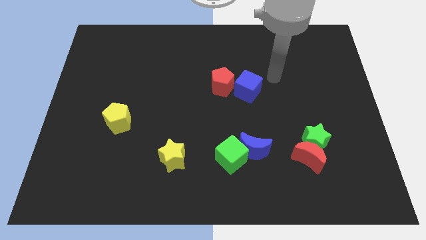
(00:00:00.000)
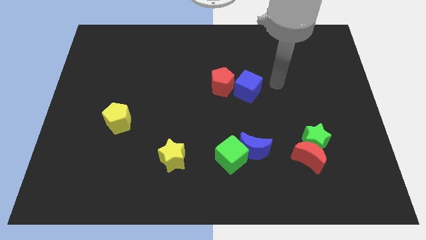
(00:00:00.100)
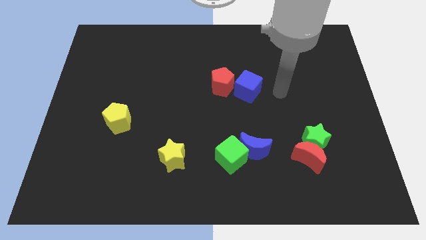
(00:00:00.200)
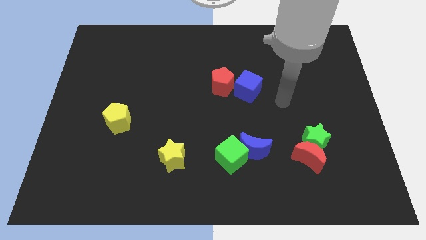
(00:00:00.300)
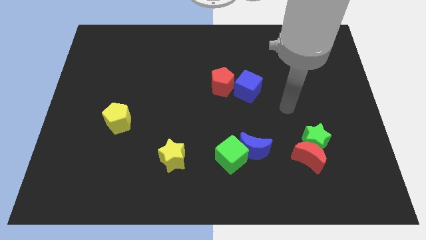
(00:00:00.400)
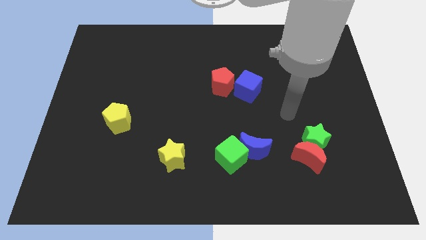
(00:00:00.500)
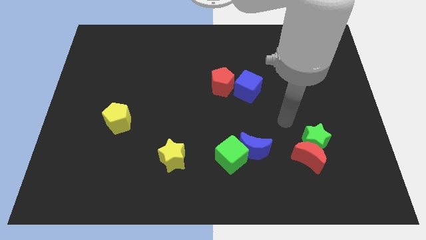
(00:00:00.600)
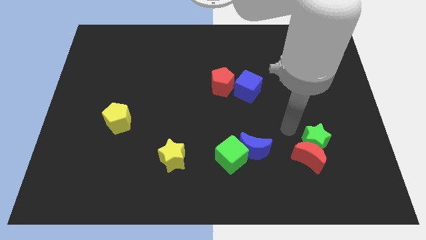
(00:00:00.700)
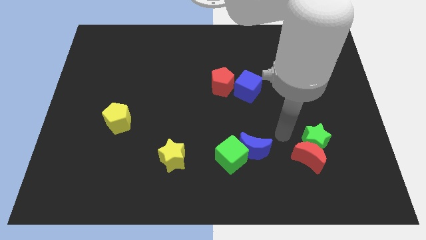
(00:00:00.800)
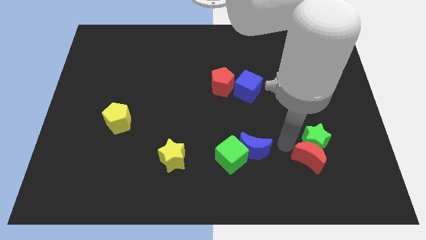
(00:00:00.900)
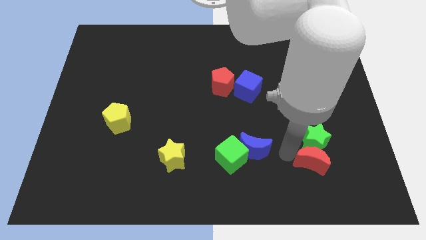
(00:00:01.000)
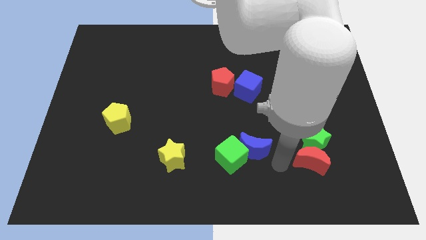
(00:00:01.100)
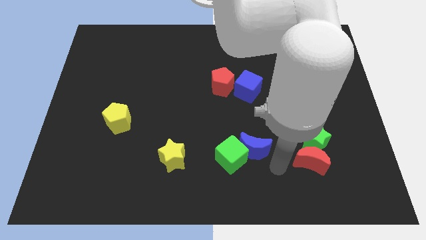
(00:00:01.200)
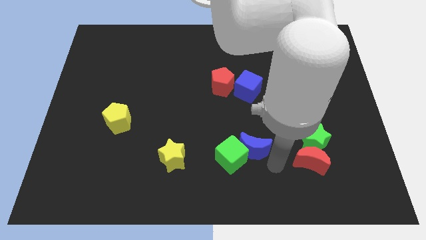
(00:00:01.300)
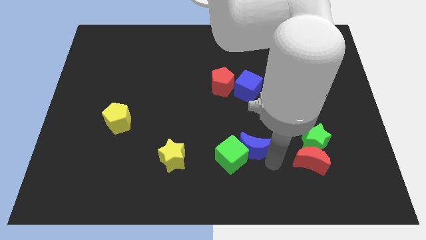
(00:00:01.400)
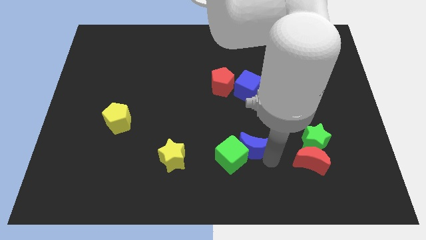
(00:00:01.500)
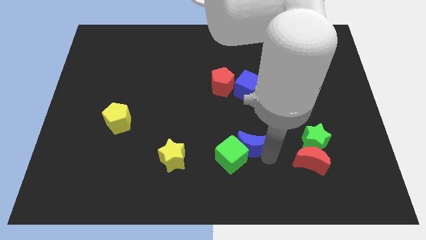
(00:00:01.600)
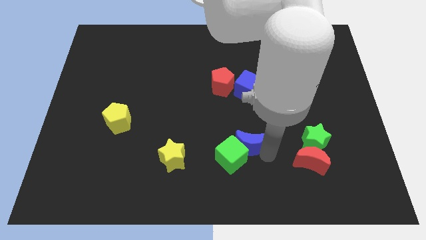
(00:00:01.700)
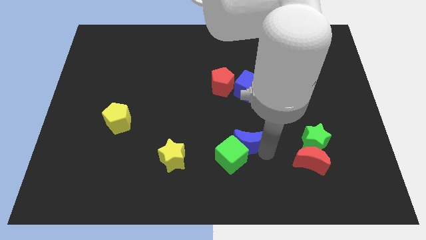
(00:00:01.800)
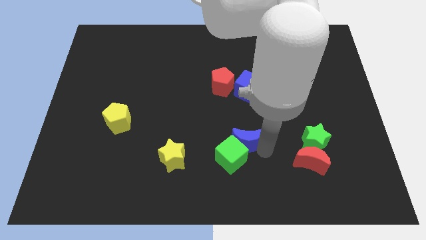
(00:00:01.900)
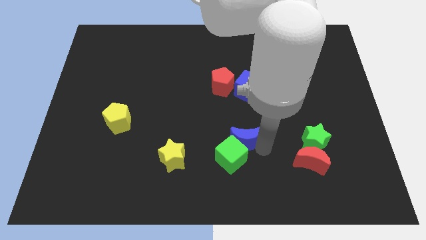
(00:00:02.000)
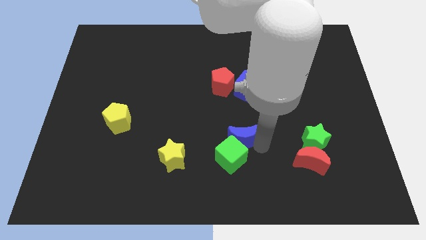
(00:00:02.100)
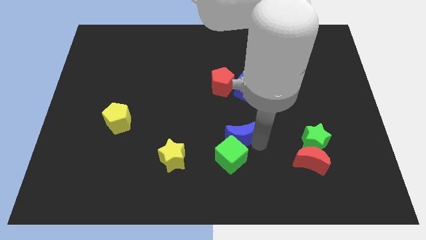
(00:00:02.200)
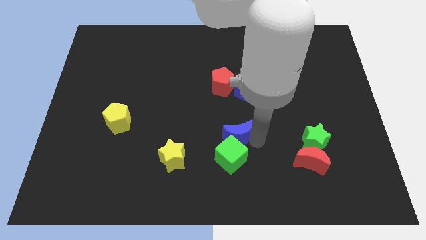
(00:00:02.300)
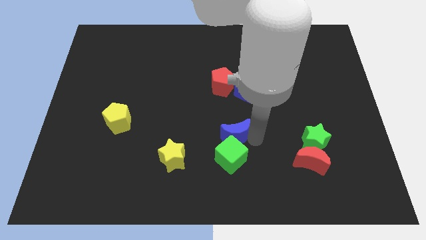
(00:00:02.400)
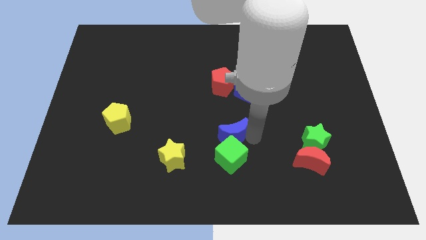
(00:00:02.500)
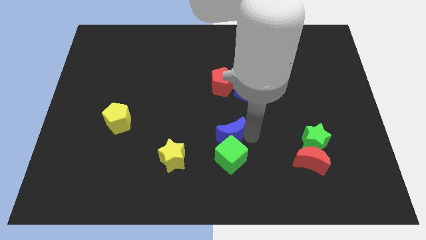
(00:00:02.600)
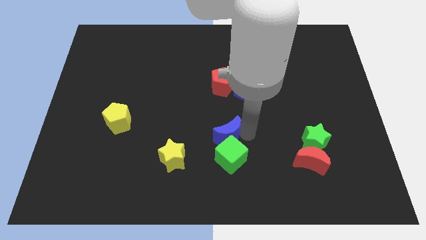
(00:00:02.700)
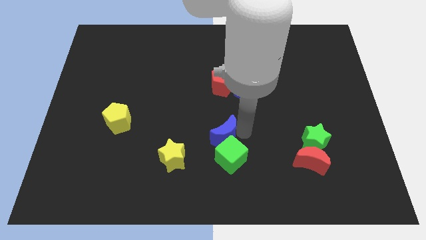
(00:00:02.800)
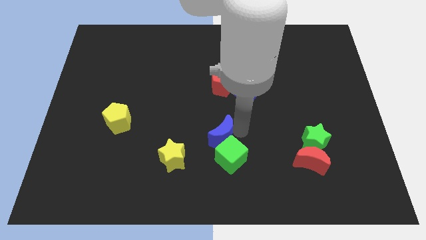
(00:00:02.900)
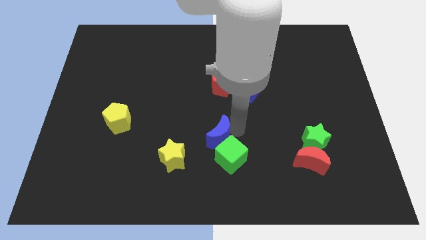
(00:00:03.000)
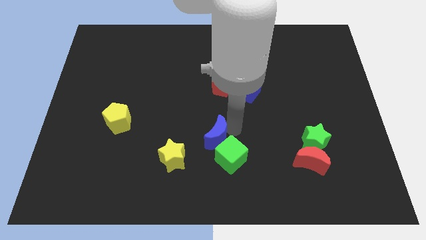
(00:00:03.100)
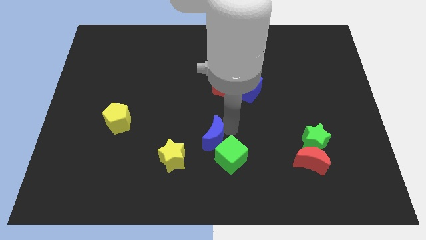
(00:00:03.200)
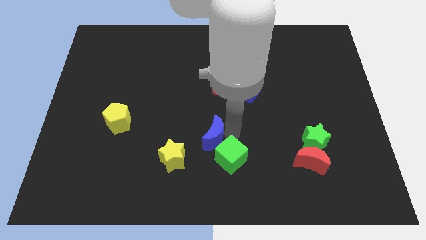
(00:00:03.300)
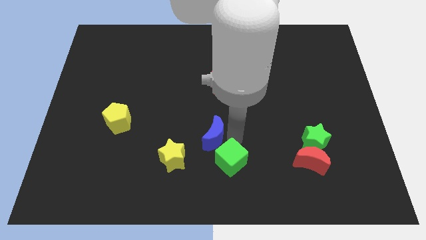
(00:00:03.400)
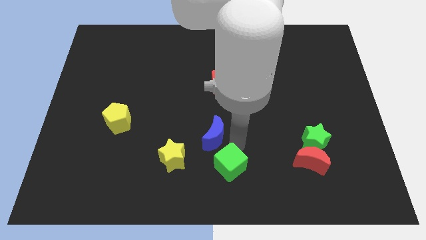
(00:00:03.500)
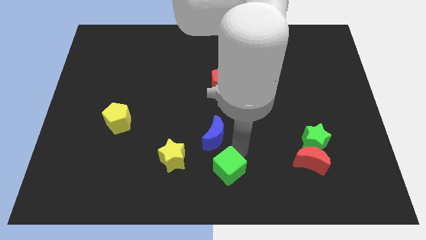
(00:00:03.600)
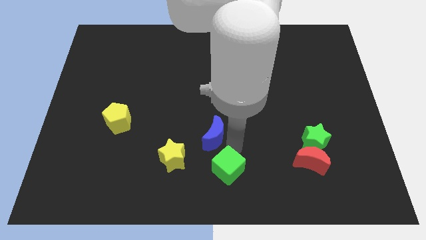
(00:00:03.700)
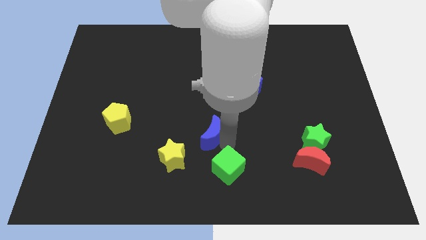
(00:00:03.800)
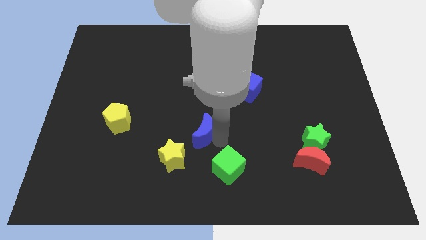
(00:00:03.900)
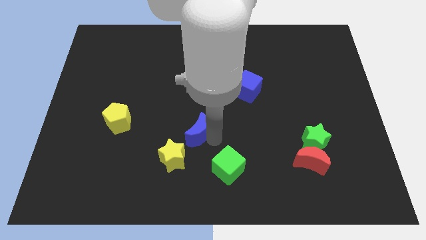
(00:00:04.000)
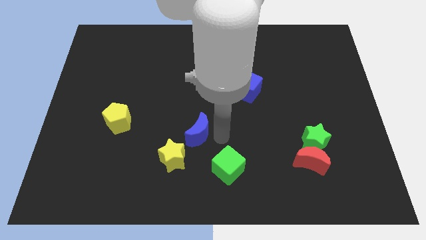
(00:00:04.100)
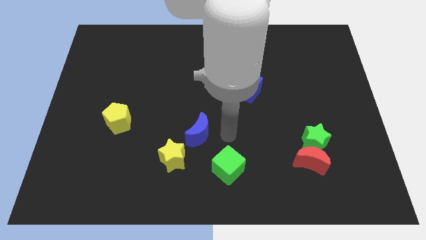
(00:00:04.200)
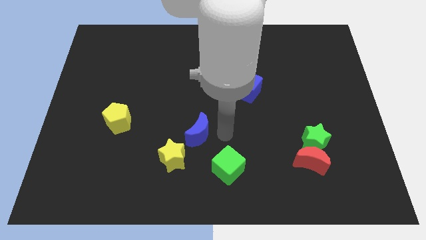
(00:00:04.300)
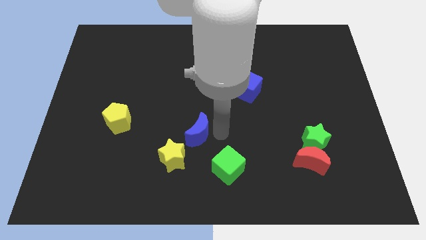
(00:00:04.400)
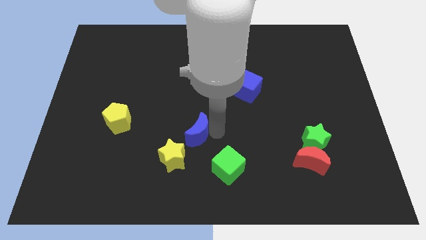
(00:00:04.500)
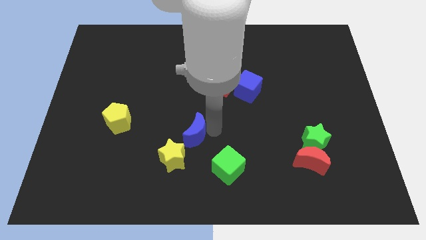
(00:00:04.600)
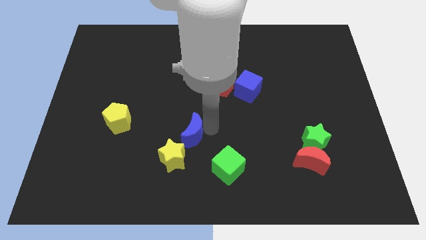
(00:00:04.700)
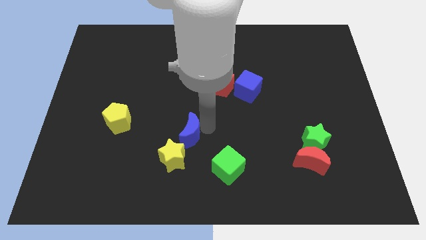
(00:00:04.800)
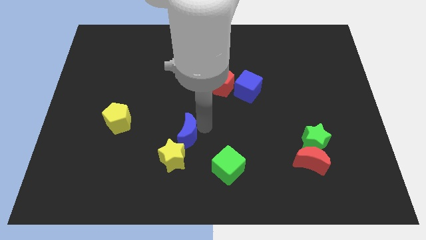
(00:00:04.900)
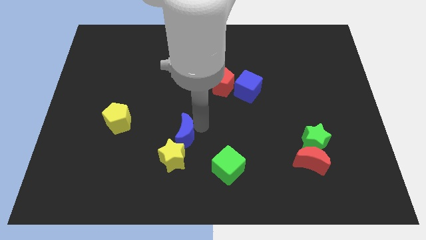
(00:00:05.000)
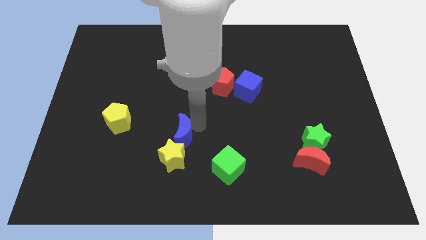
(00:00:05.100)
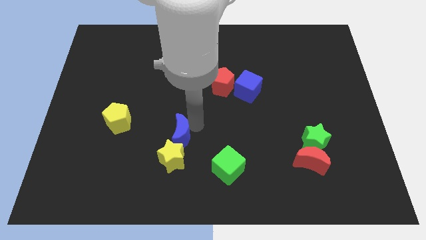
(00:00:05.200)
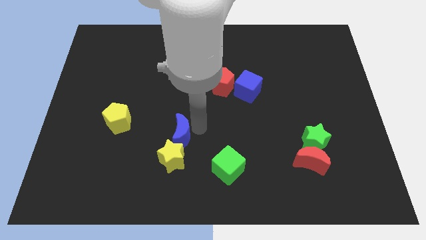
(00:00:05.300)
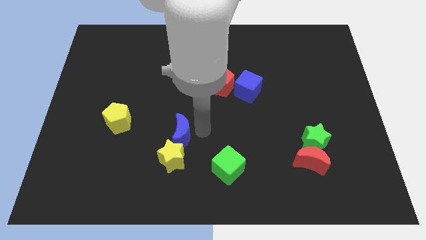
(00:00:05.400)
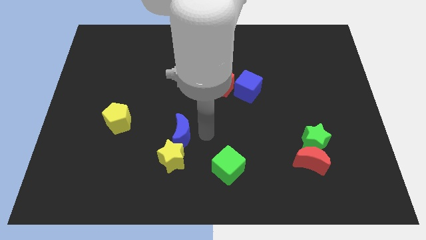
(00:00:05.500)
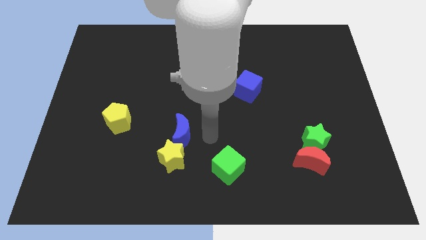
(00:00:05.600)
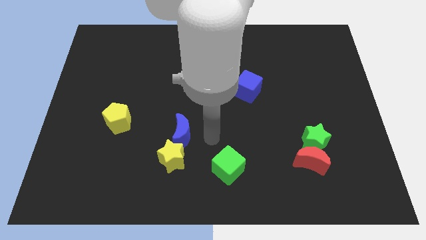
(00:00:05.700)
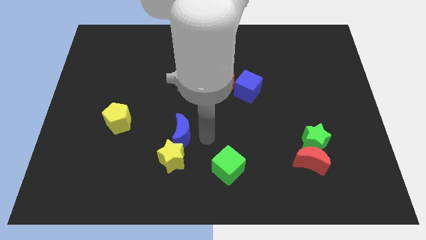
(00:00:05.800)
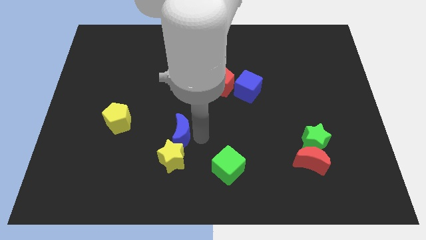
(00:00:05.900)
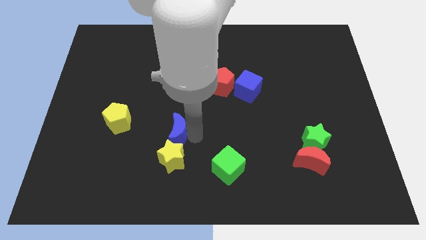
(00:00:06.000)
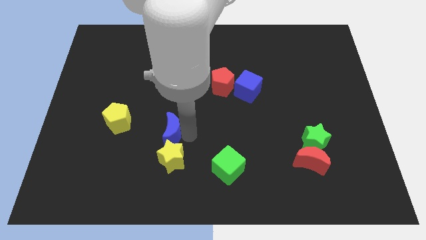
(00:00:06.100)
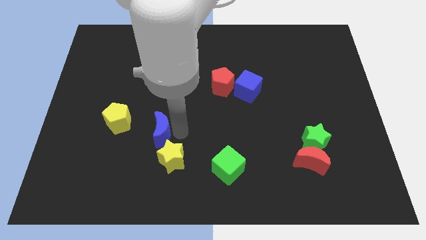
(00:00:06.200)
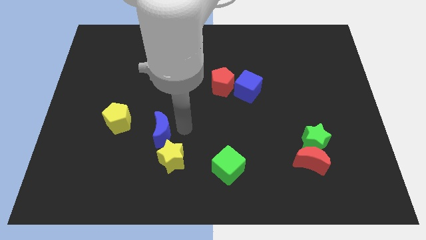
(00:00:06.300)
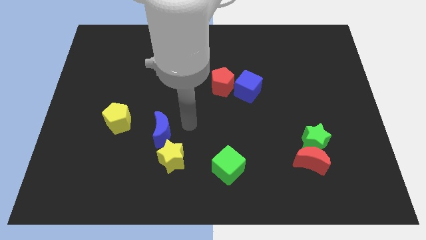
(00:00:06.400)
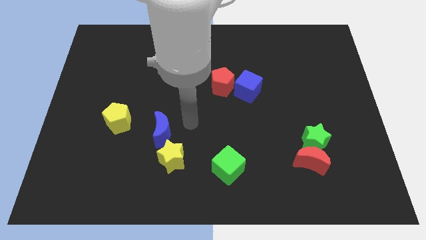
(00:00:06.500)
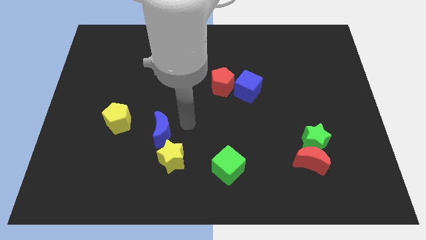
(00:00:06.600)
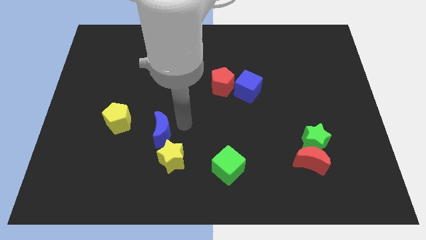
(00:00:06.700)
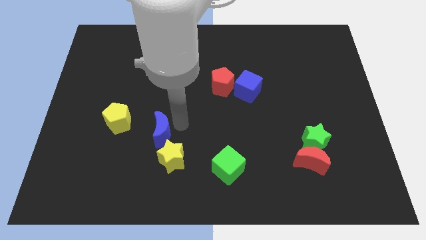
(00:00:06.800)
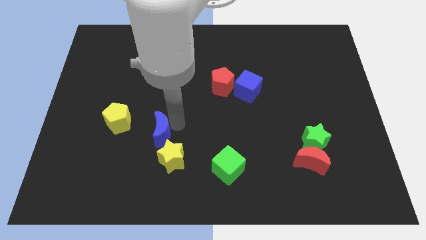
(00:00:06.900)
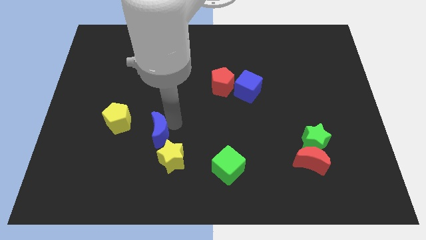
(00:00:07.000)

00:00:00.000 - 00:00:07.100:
push the blue moon left

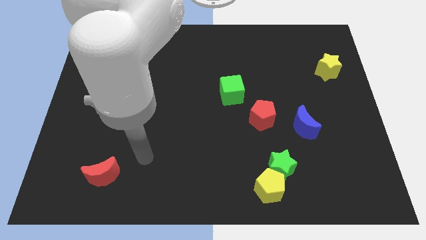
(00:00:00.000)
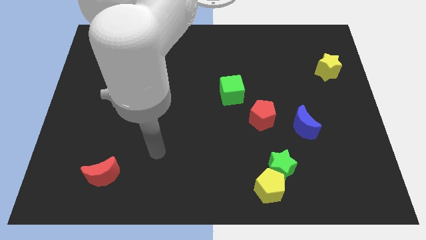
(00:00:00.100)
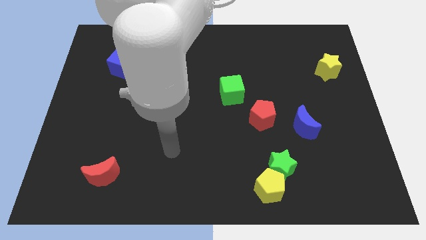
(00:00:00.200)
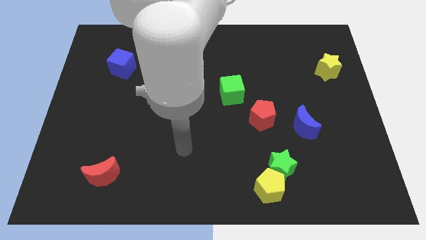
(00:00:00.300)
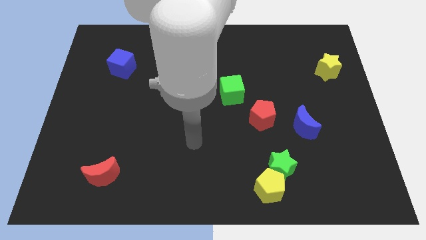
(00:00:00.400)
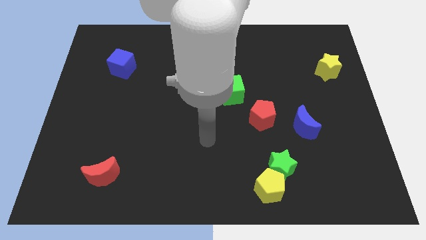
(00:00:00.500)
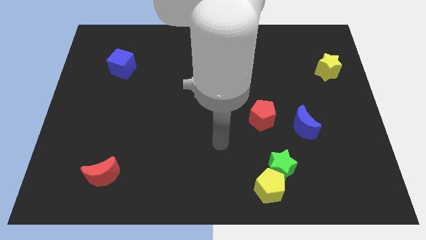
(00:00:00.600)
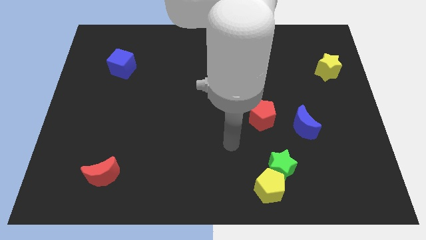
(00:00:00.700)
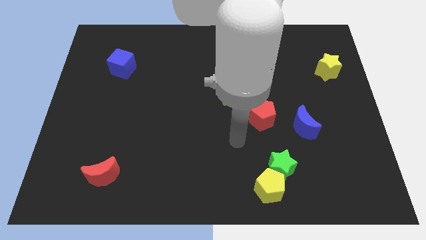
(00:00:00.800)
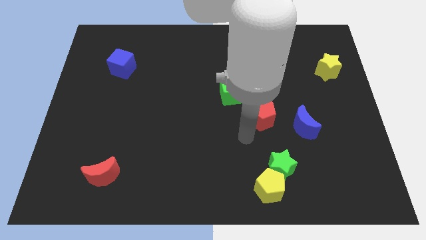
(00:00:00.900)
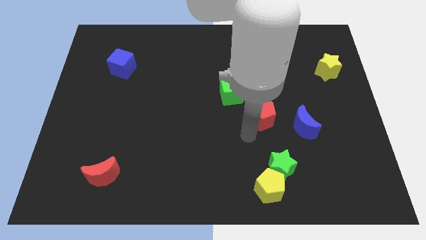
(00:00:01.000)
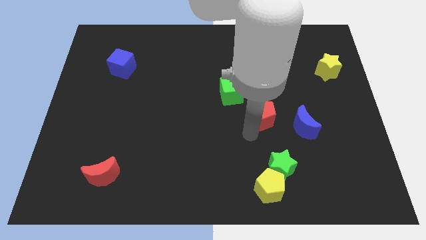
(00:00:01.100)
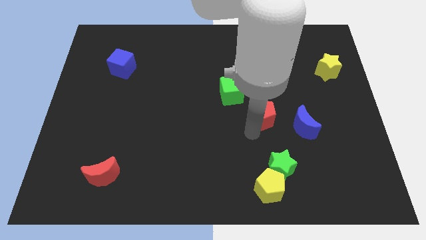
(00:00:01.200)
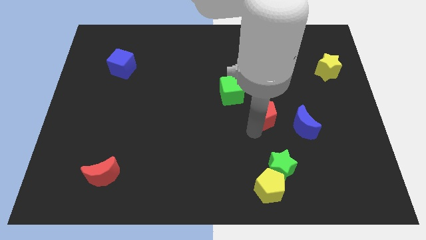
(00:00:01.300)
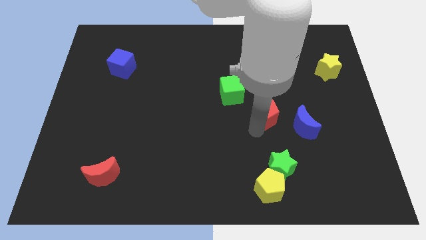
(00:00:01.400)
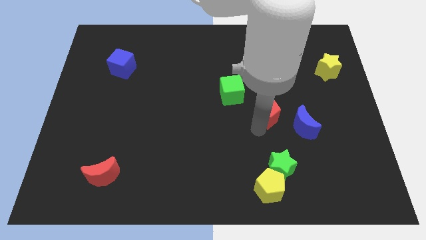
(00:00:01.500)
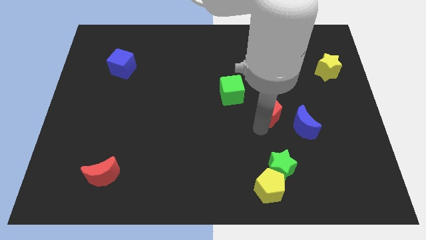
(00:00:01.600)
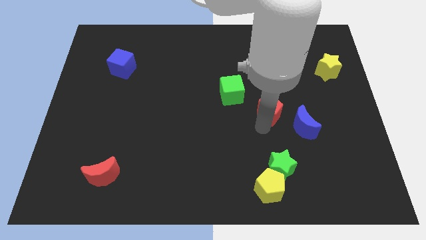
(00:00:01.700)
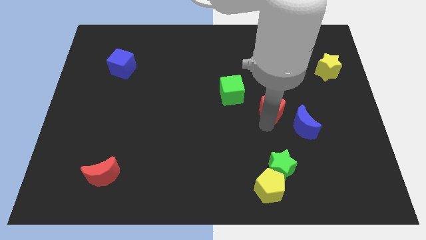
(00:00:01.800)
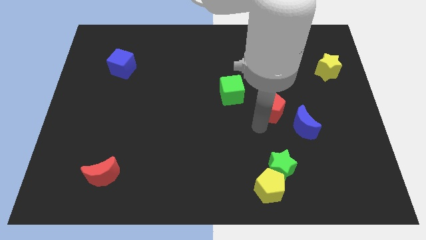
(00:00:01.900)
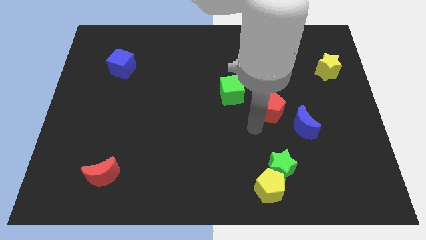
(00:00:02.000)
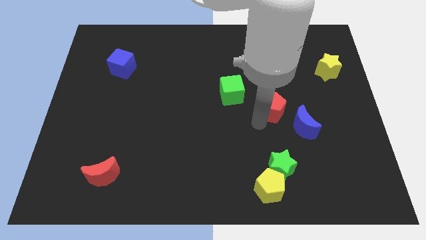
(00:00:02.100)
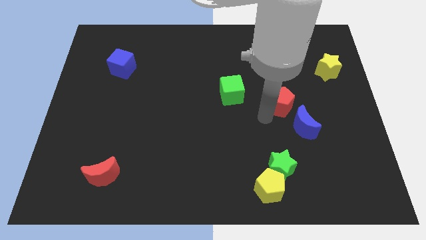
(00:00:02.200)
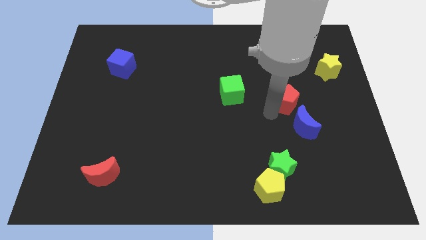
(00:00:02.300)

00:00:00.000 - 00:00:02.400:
slightly move the red pentagon diagonally up and to the right
